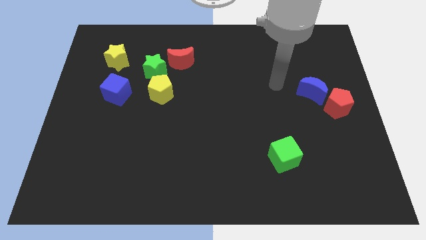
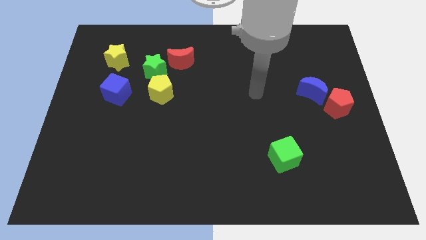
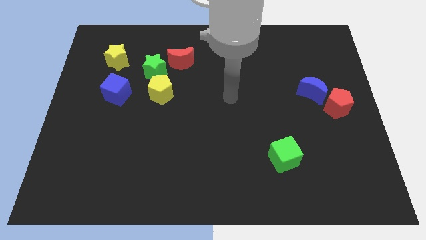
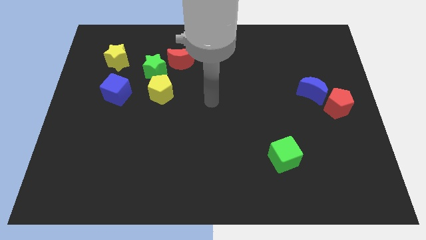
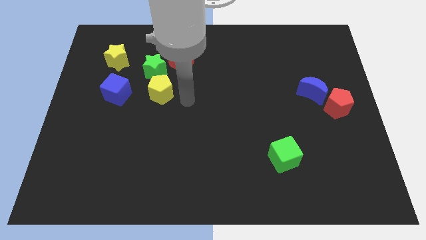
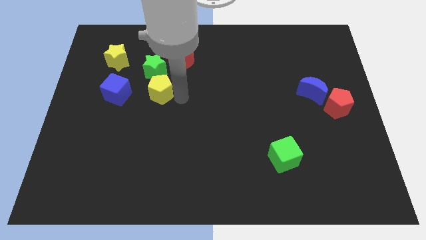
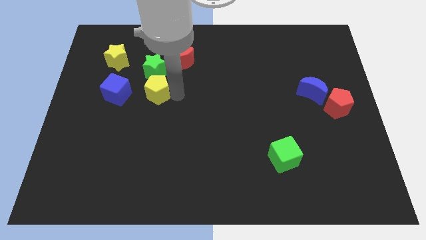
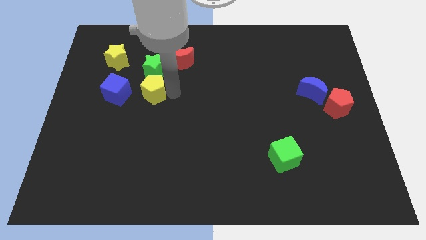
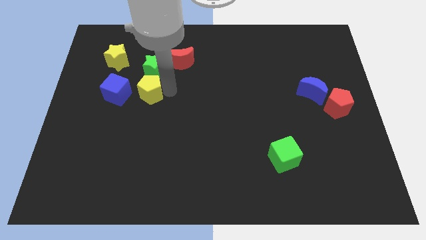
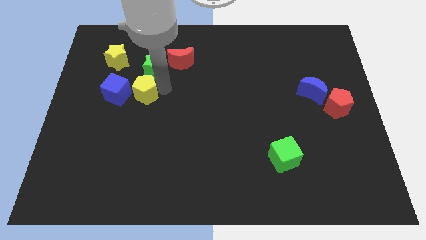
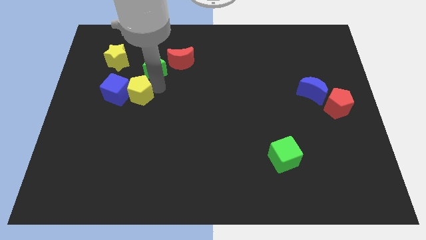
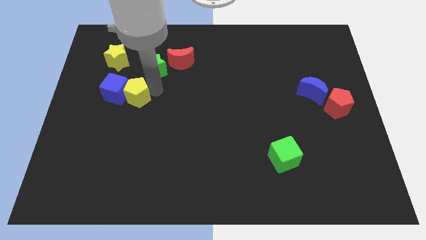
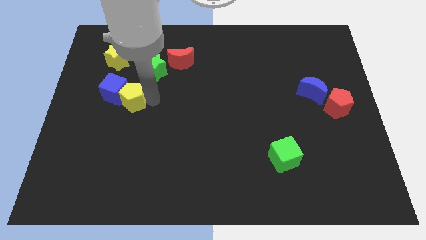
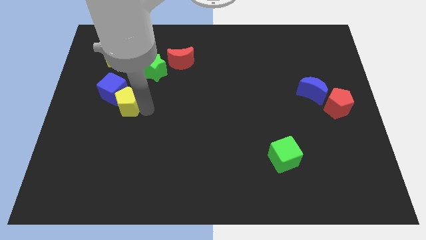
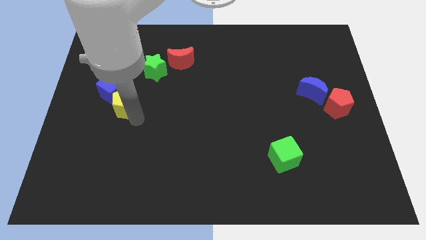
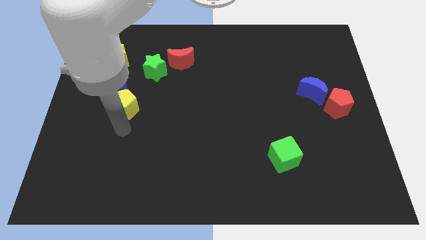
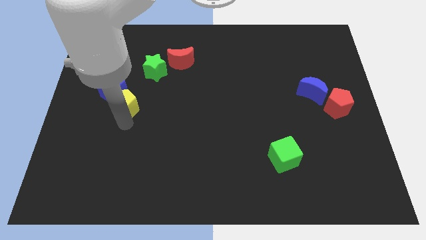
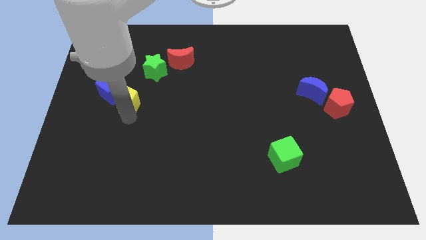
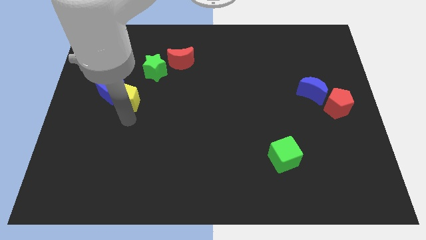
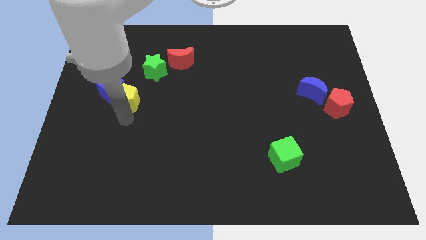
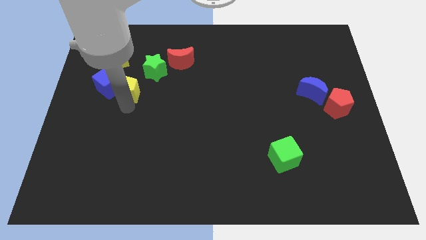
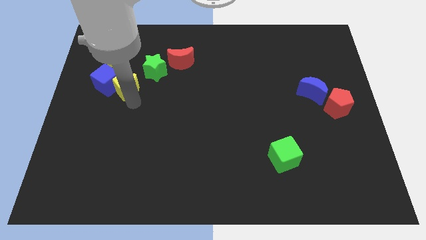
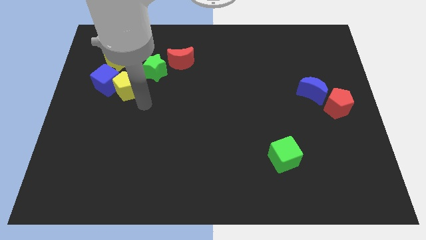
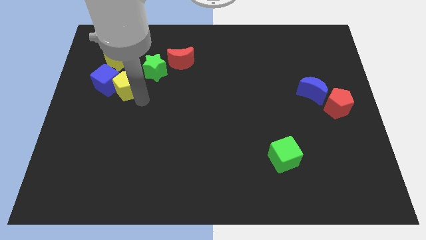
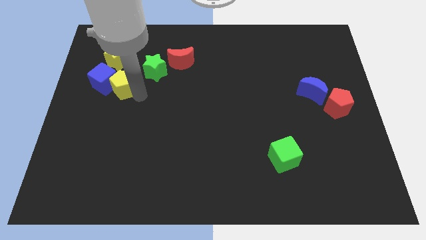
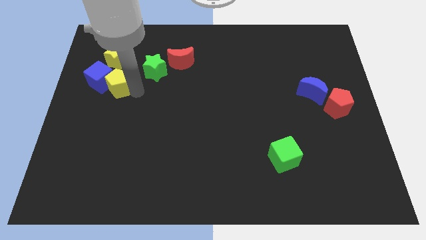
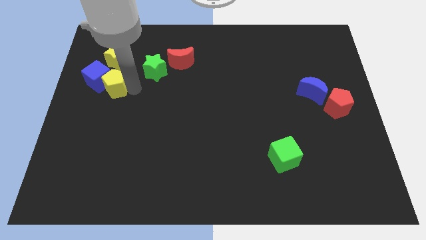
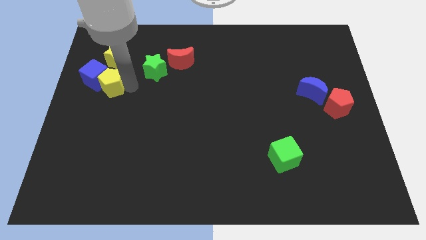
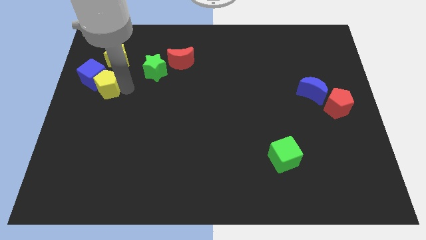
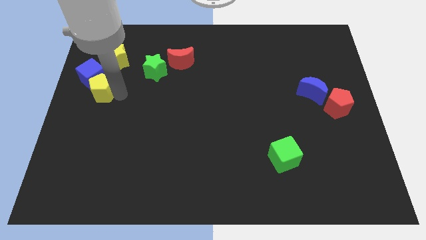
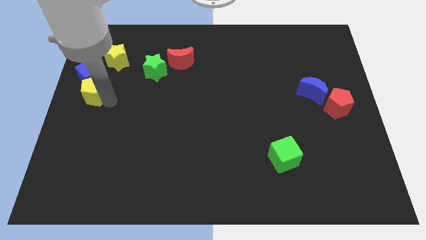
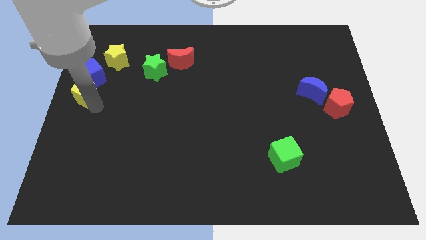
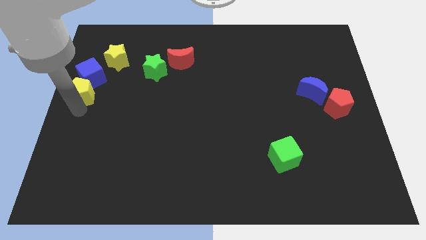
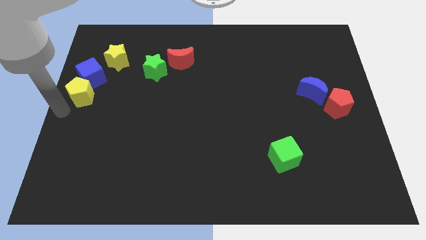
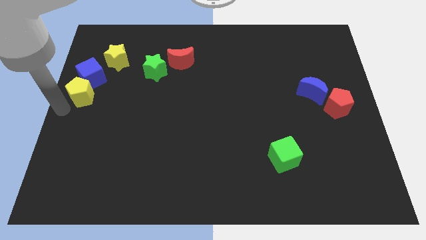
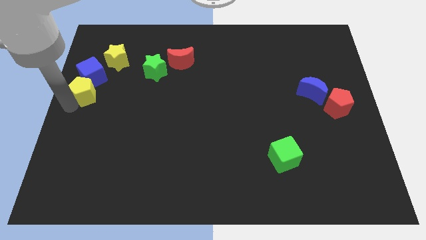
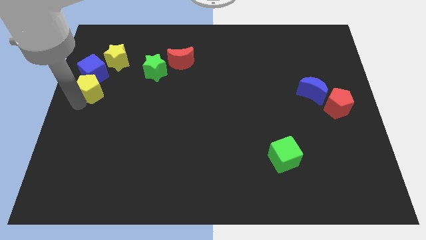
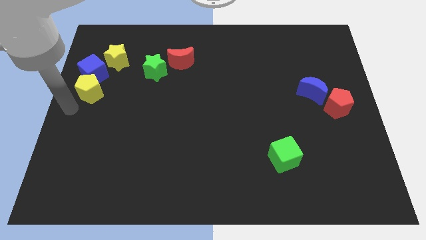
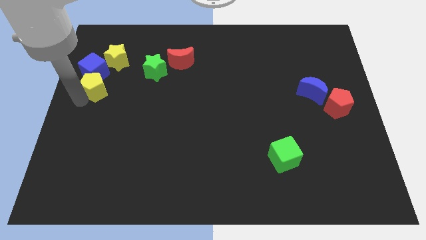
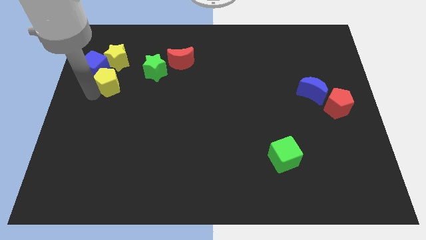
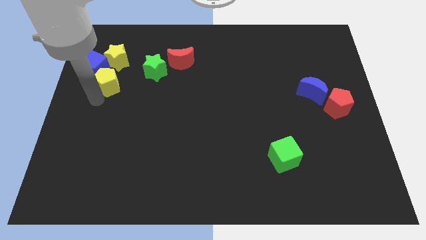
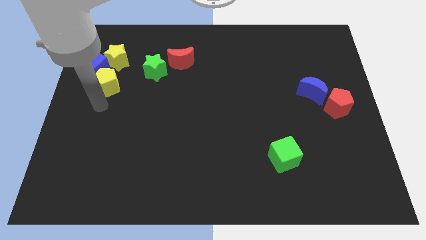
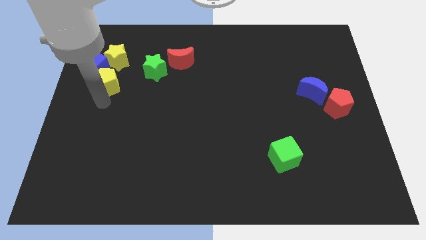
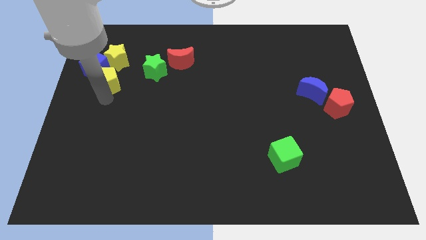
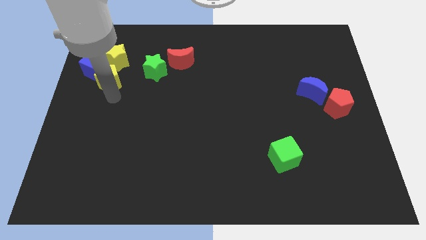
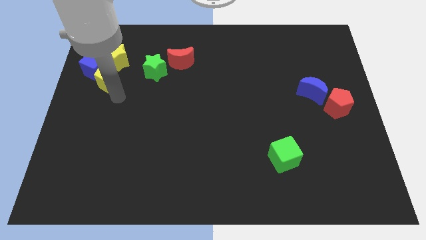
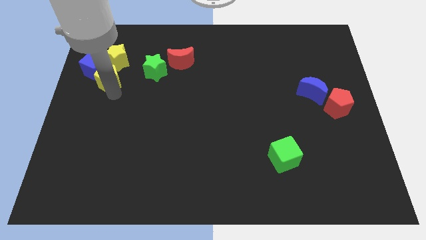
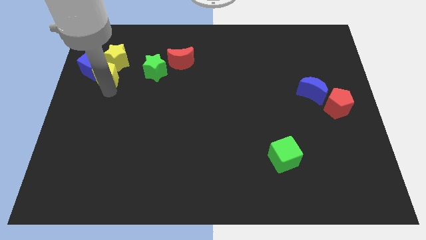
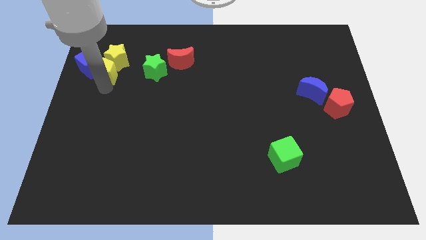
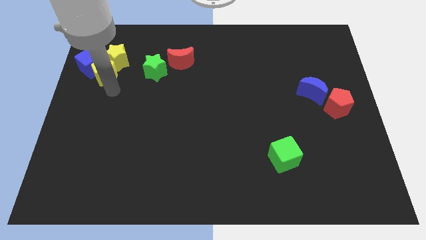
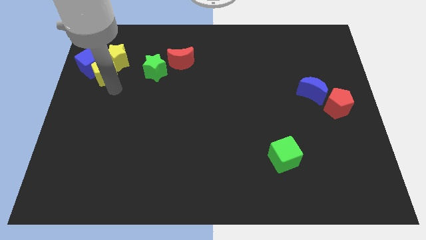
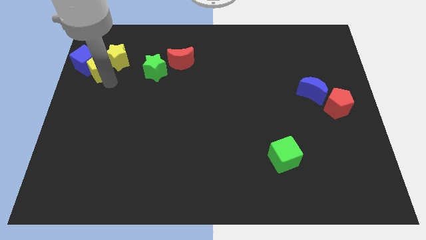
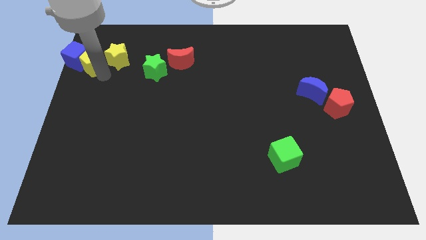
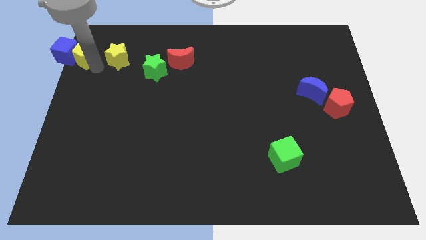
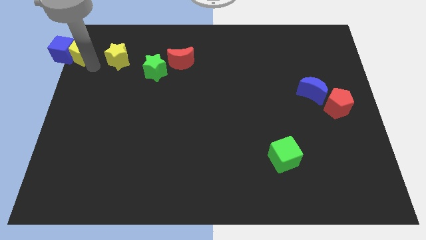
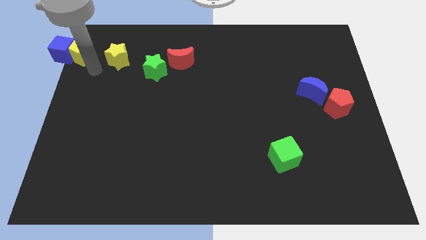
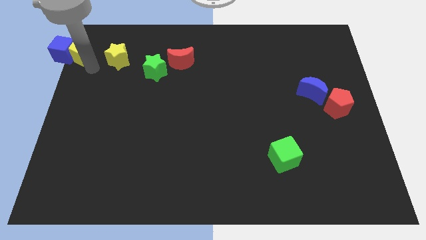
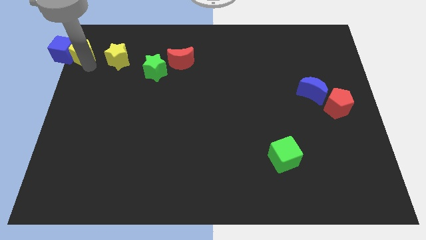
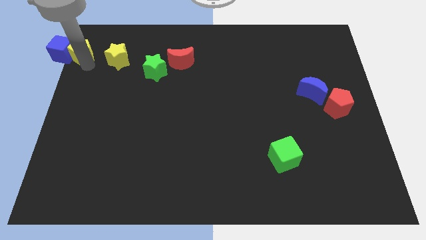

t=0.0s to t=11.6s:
push the yellow pentagon to the top left corner

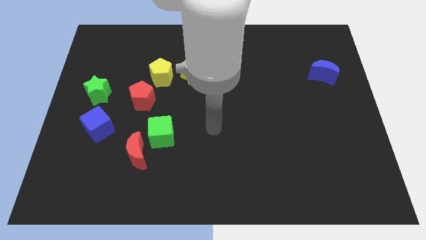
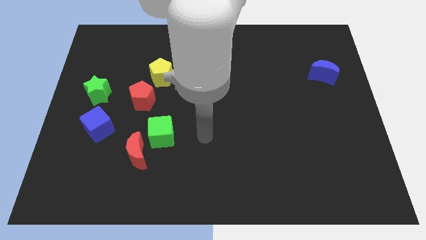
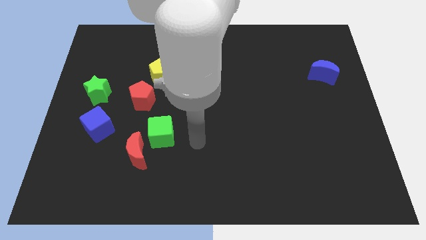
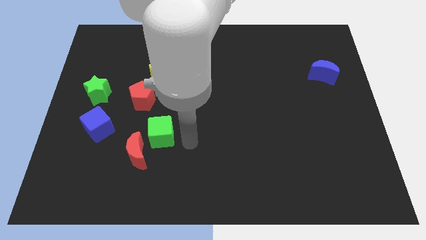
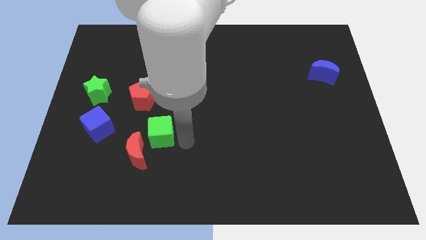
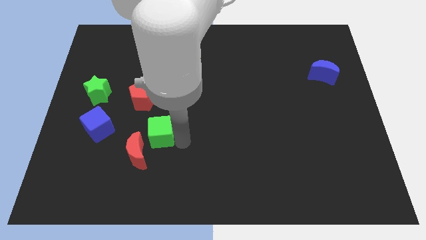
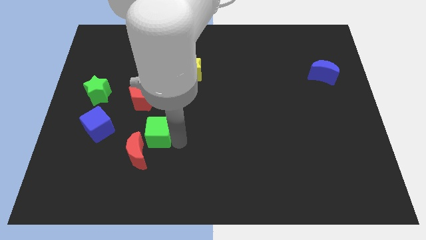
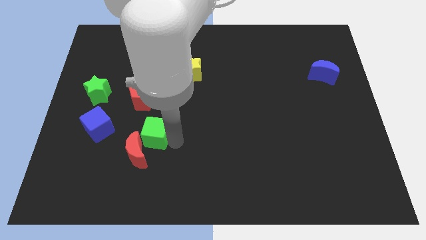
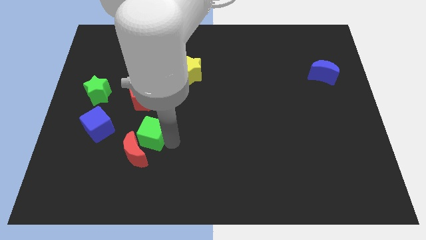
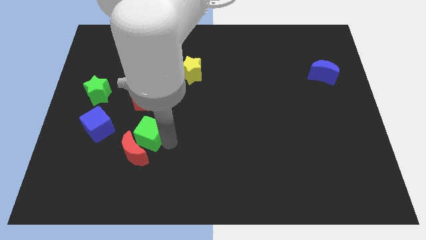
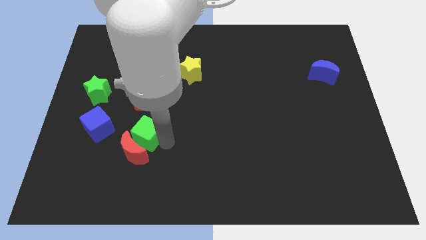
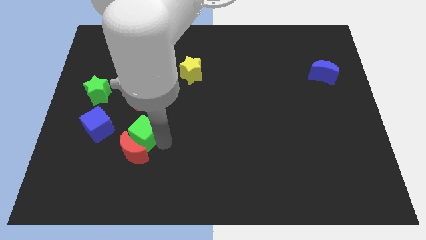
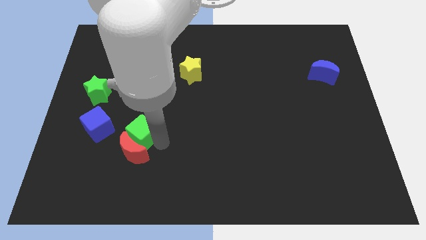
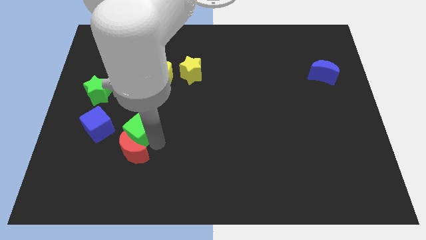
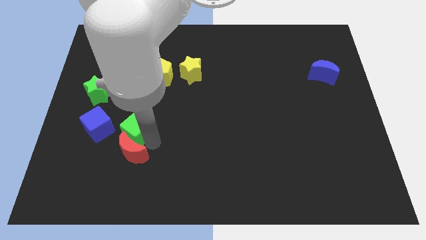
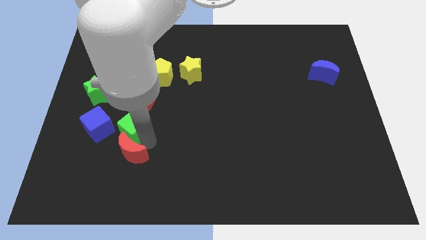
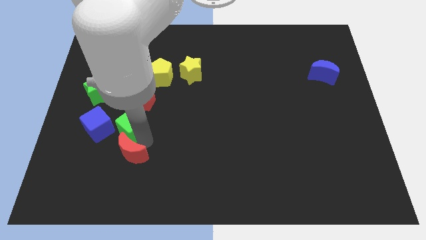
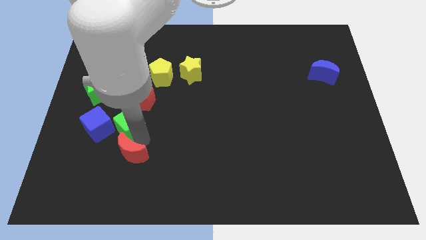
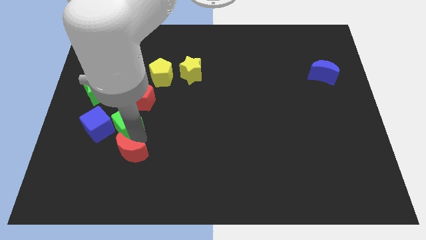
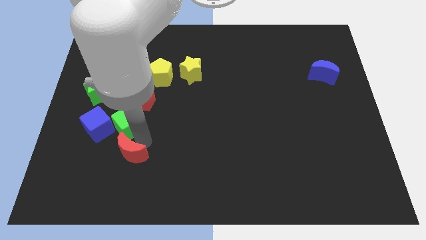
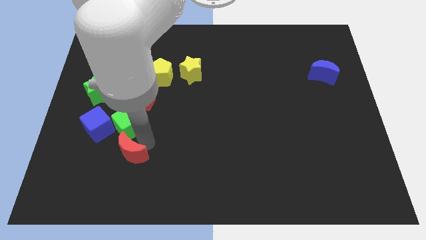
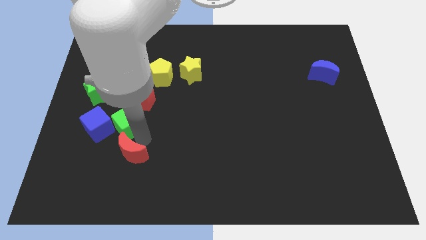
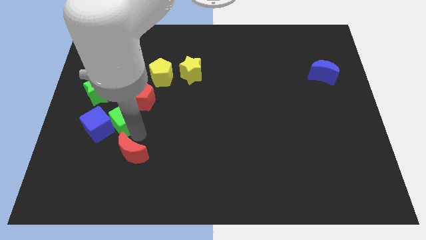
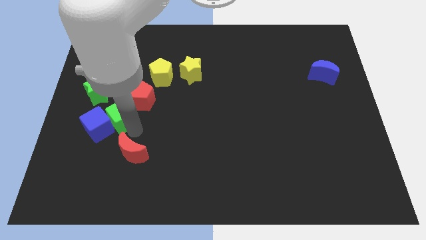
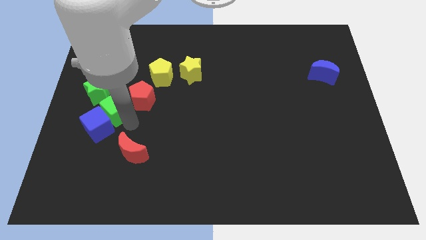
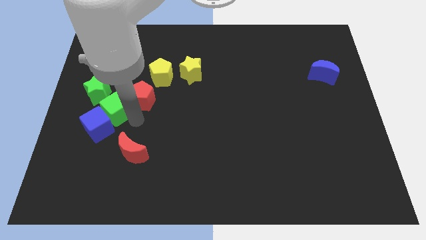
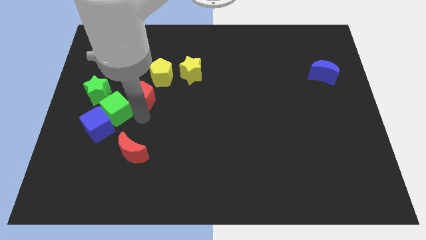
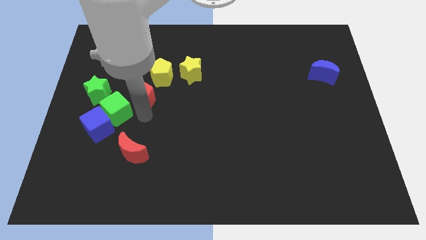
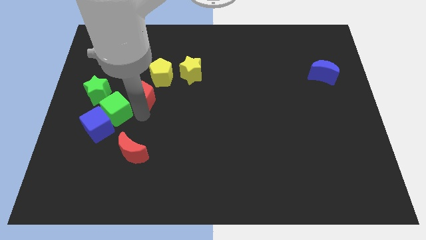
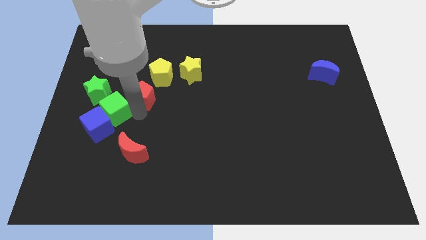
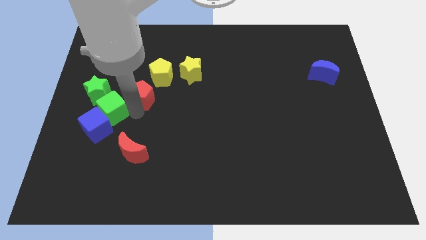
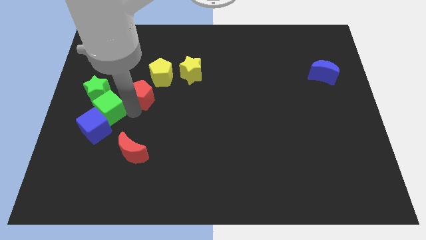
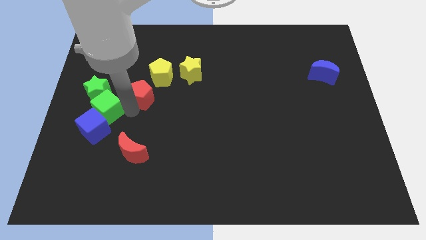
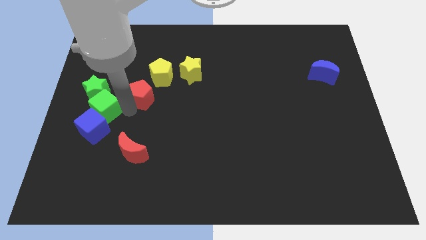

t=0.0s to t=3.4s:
put the green cube to the left side
